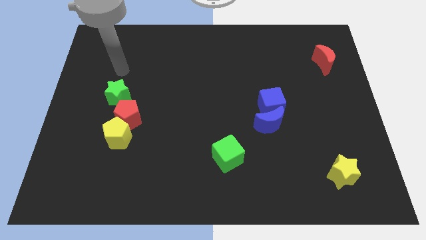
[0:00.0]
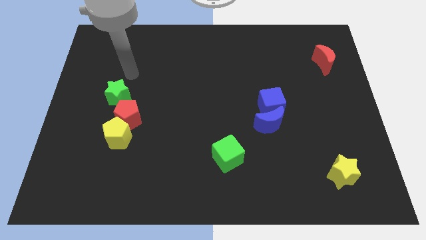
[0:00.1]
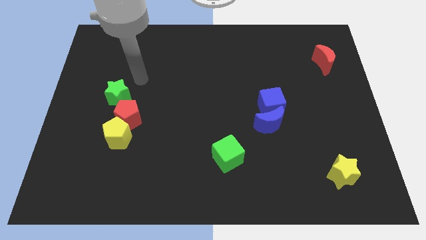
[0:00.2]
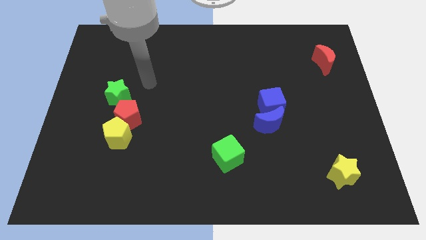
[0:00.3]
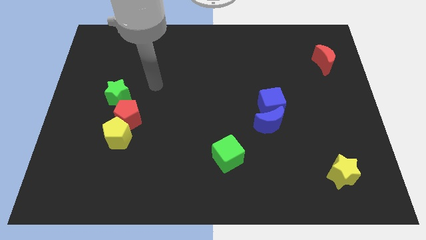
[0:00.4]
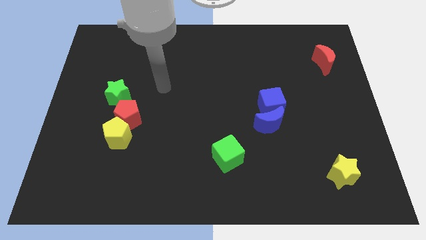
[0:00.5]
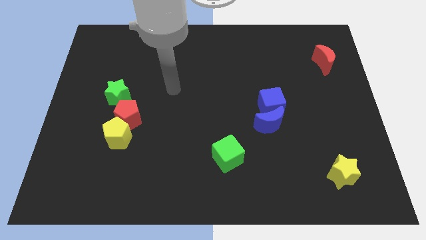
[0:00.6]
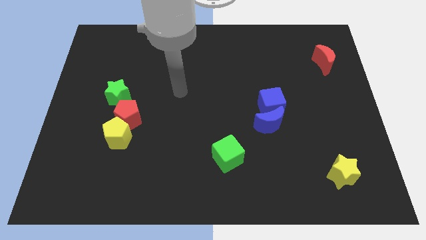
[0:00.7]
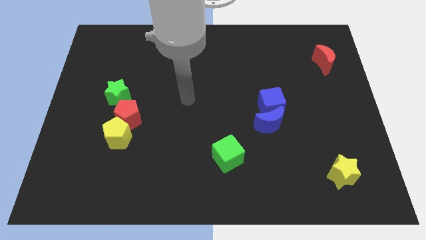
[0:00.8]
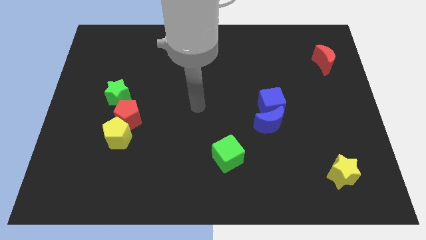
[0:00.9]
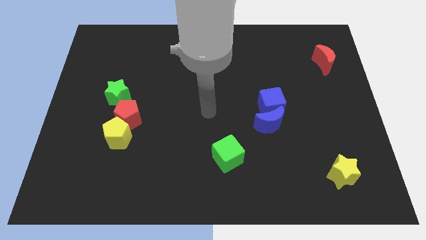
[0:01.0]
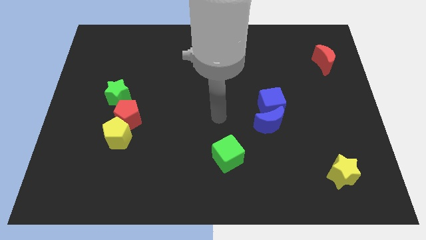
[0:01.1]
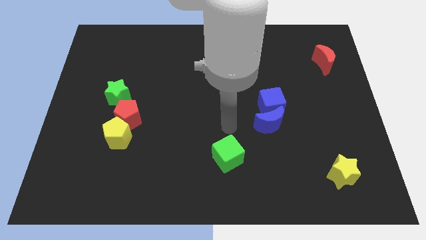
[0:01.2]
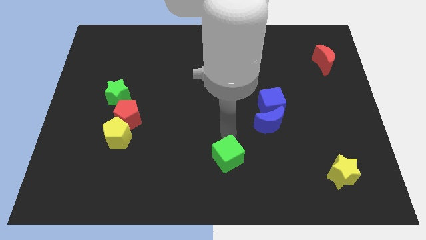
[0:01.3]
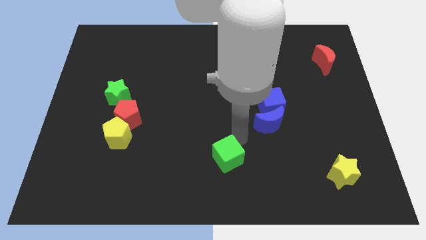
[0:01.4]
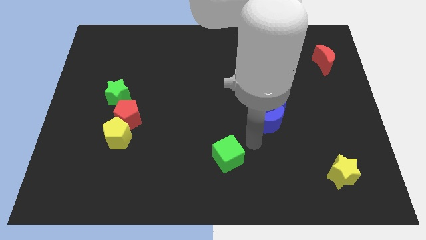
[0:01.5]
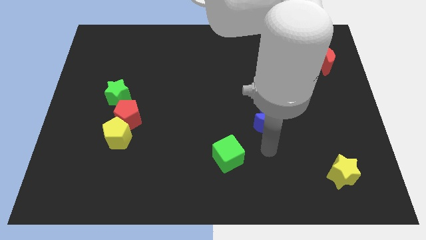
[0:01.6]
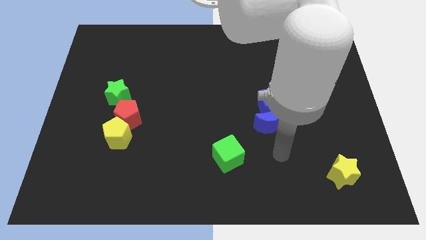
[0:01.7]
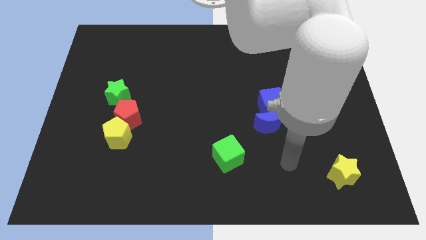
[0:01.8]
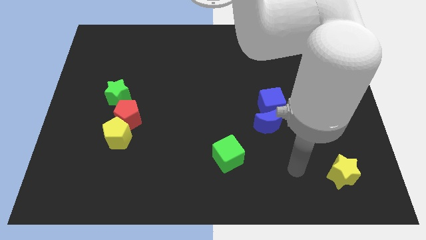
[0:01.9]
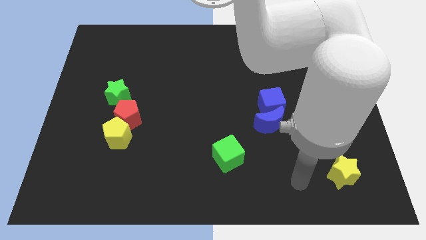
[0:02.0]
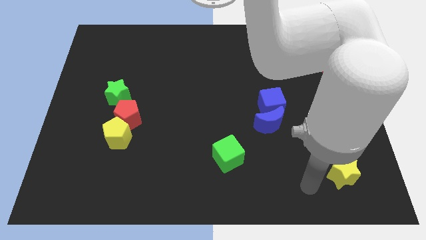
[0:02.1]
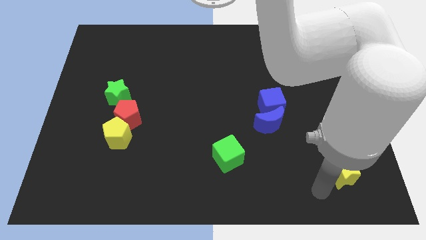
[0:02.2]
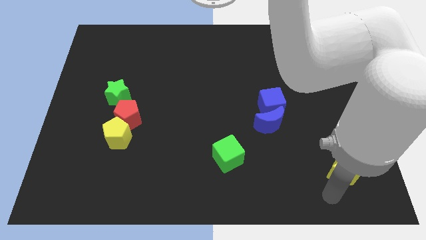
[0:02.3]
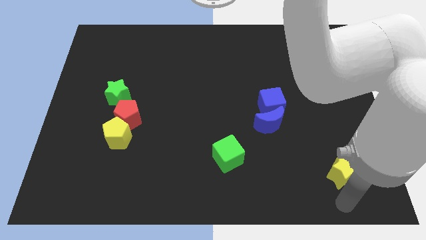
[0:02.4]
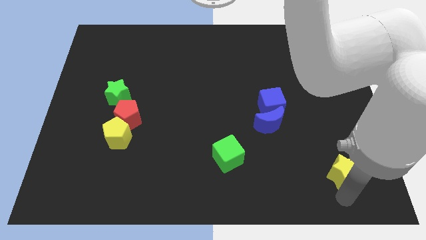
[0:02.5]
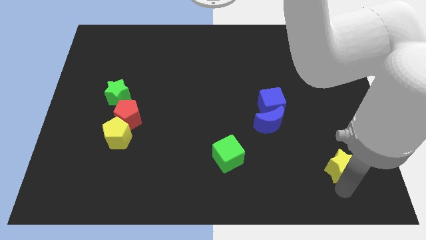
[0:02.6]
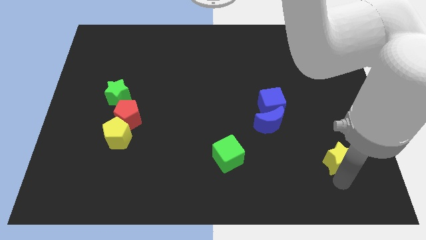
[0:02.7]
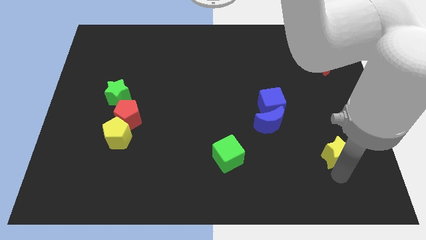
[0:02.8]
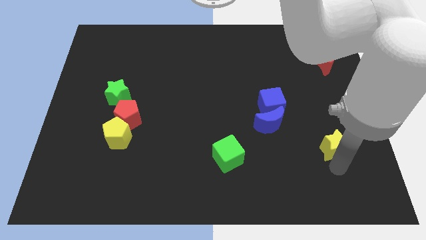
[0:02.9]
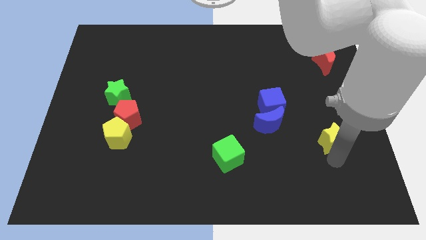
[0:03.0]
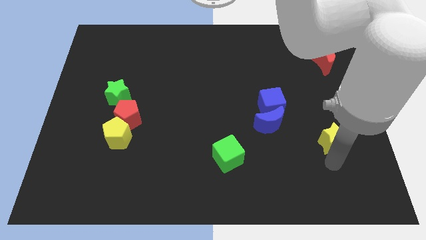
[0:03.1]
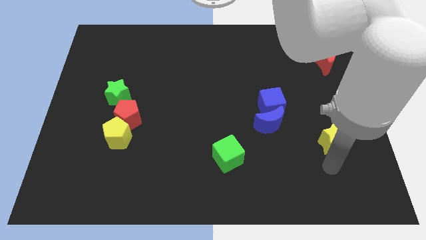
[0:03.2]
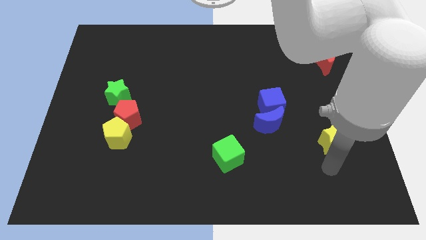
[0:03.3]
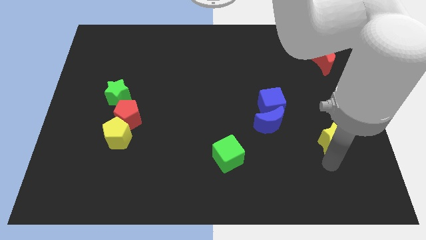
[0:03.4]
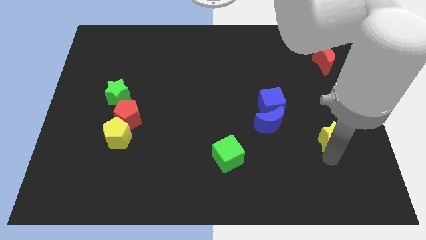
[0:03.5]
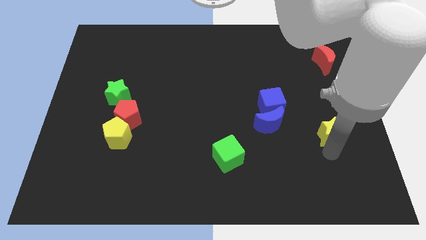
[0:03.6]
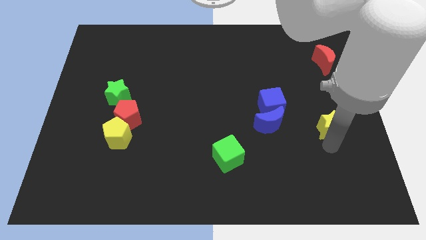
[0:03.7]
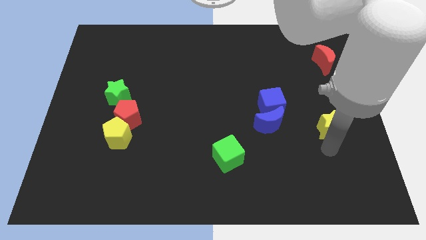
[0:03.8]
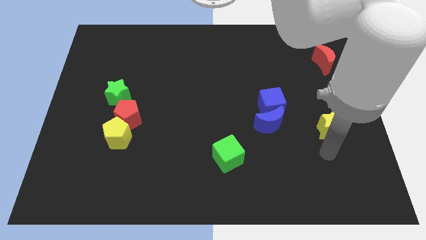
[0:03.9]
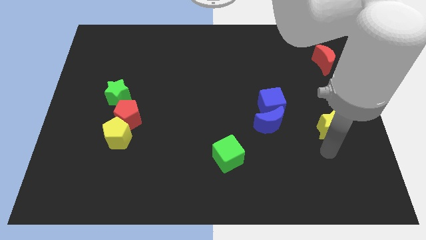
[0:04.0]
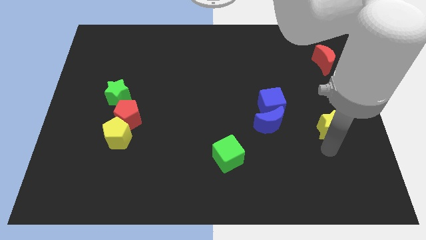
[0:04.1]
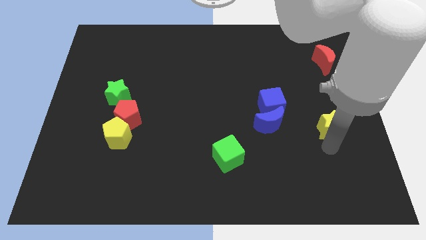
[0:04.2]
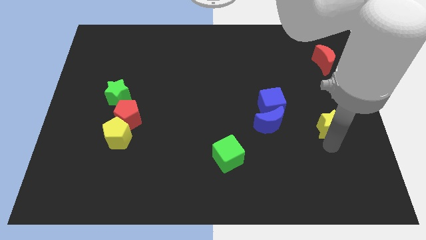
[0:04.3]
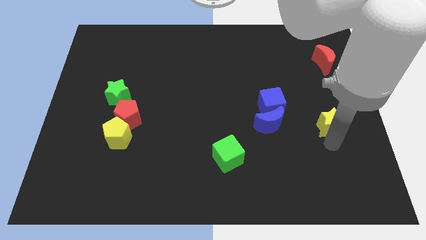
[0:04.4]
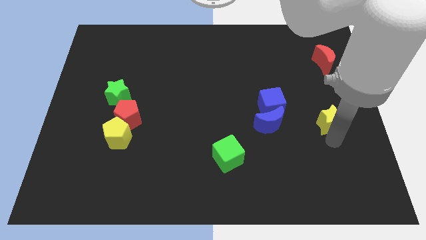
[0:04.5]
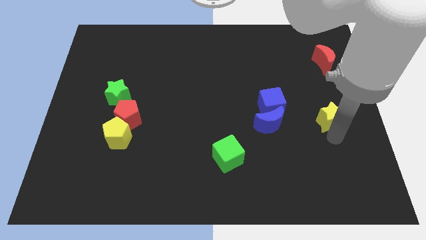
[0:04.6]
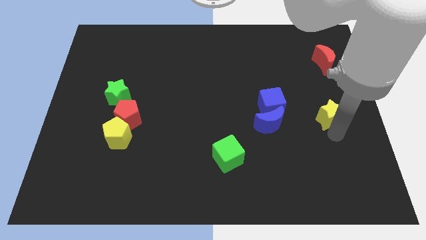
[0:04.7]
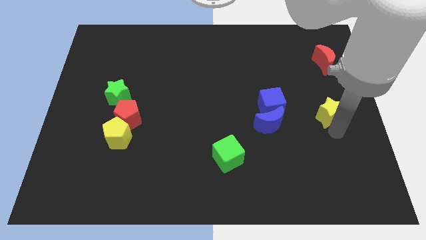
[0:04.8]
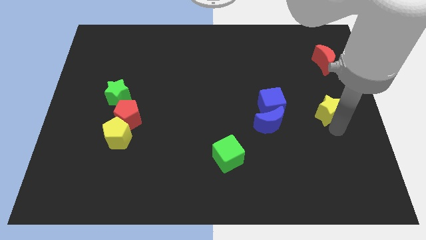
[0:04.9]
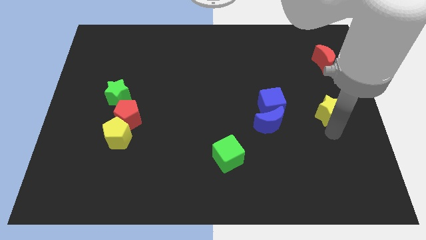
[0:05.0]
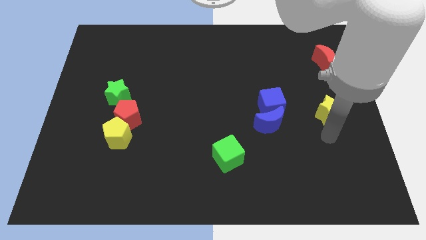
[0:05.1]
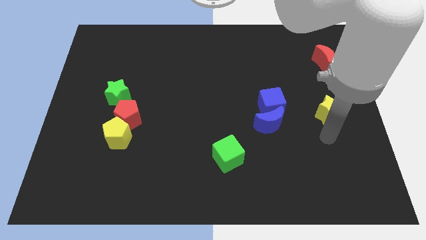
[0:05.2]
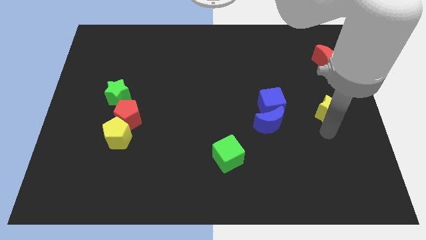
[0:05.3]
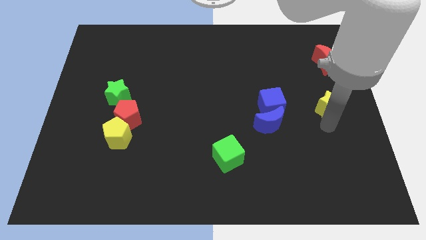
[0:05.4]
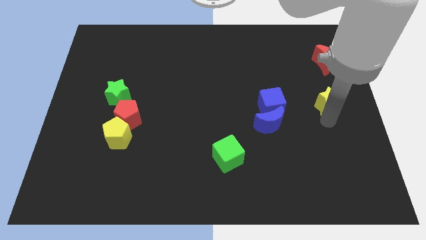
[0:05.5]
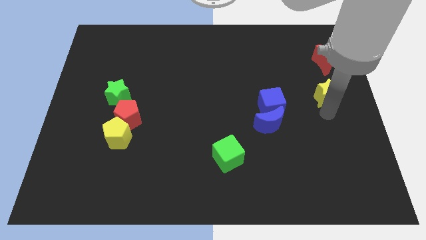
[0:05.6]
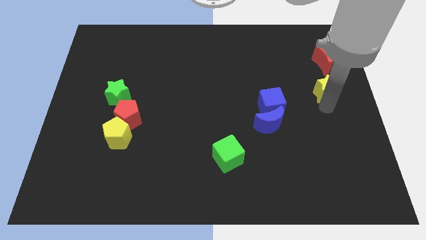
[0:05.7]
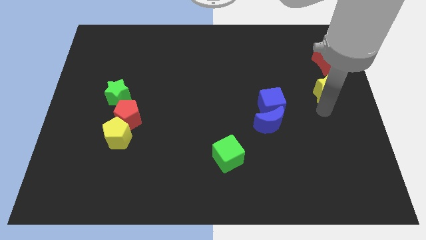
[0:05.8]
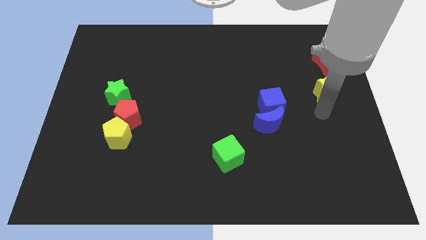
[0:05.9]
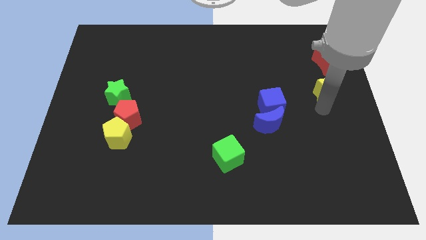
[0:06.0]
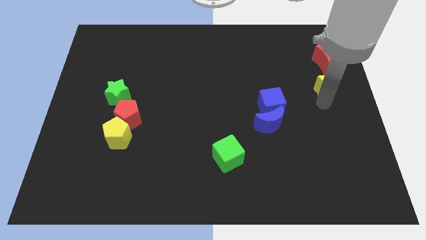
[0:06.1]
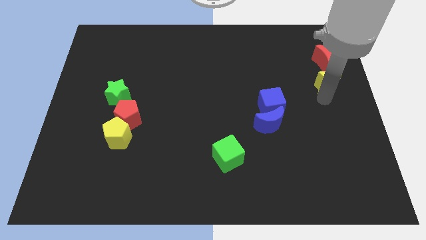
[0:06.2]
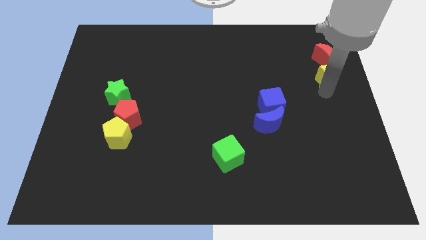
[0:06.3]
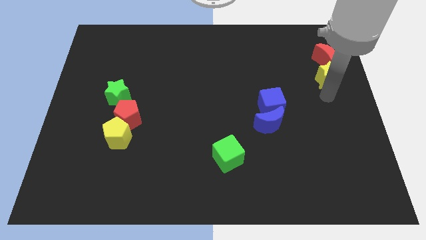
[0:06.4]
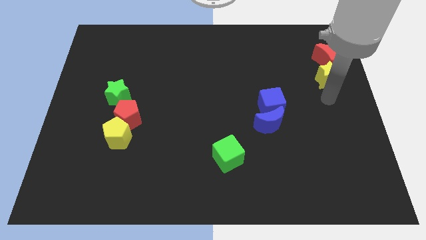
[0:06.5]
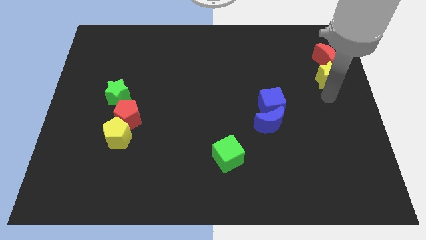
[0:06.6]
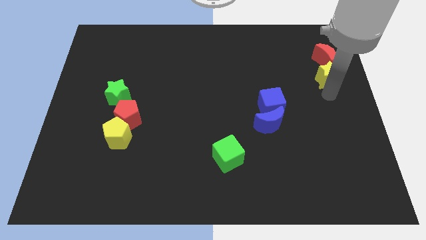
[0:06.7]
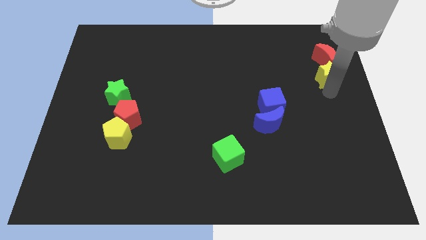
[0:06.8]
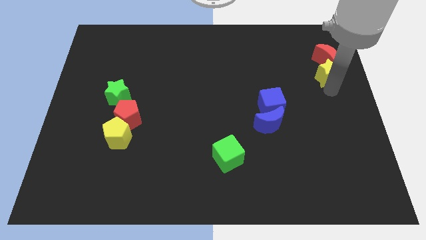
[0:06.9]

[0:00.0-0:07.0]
put the yellow star close to the red moon

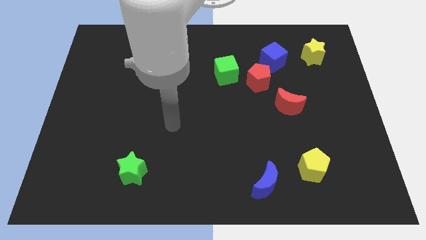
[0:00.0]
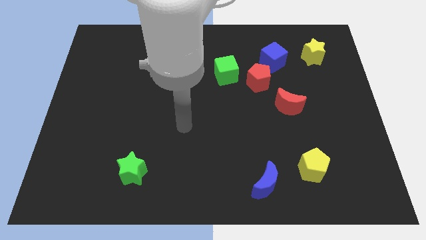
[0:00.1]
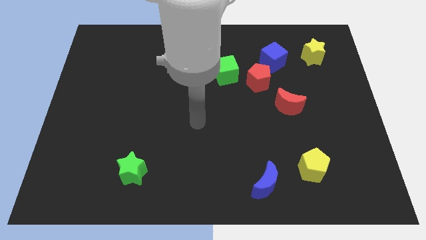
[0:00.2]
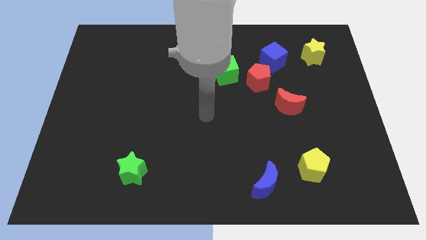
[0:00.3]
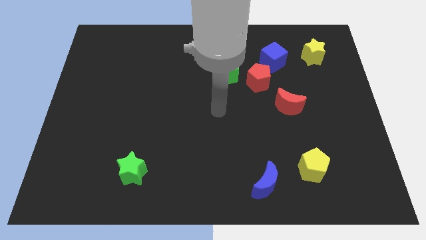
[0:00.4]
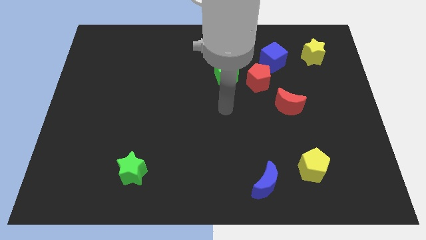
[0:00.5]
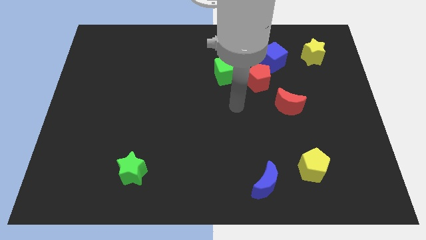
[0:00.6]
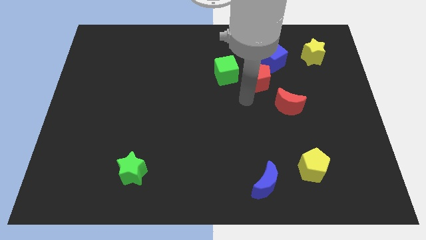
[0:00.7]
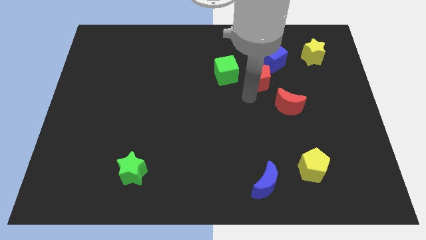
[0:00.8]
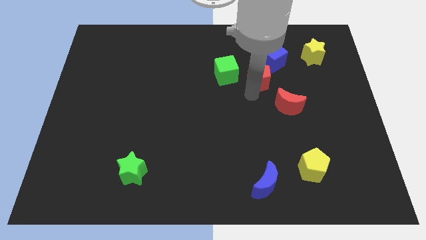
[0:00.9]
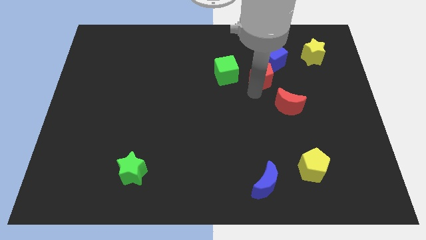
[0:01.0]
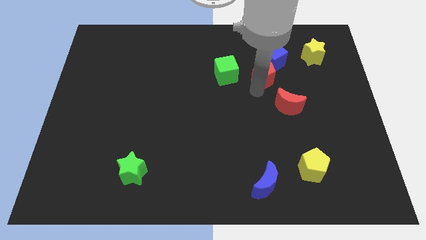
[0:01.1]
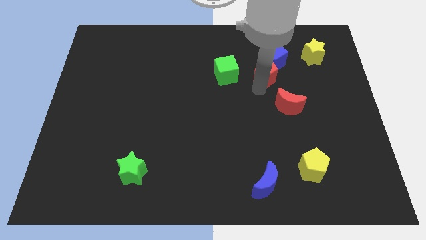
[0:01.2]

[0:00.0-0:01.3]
slide the red pentagon next to the blue cube
